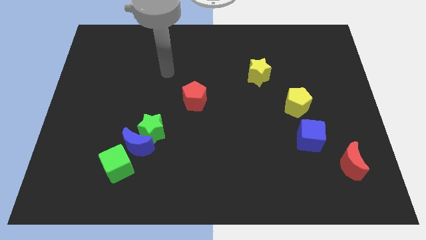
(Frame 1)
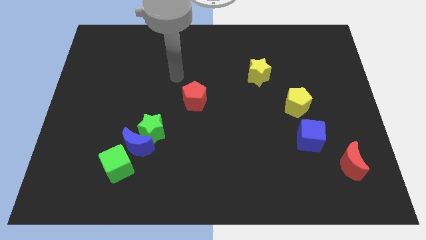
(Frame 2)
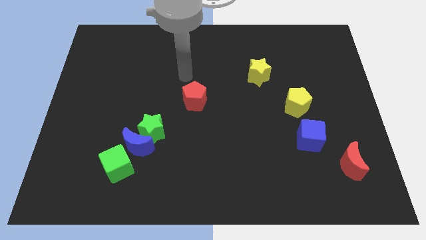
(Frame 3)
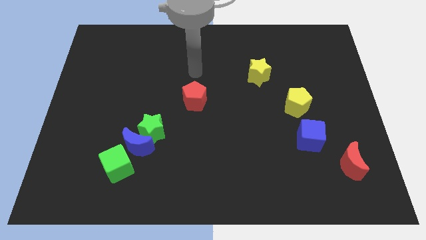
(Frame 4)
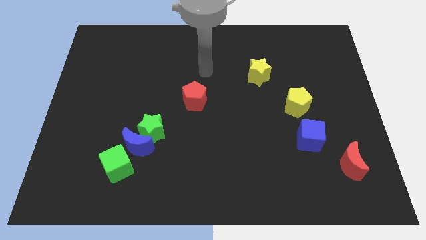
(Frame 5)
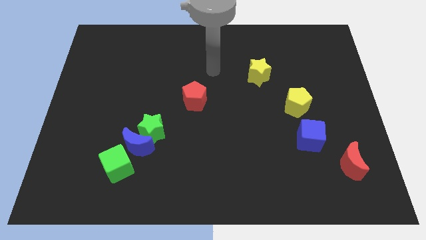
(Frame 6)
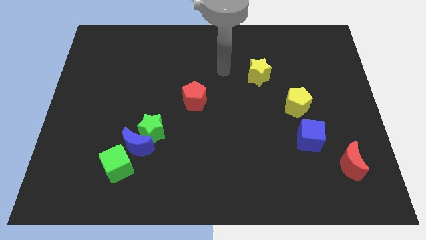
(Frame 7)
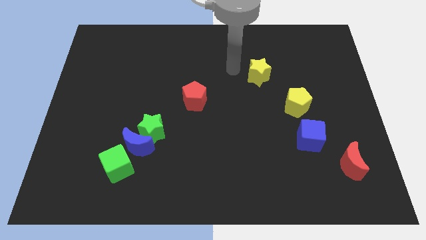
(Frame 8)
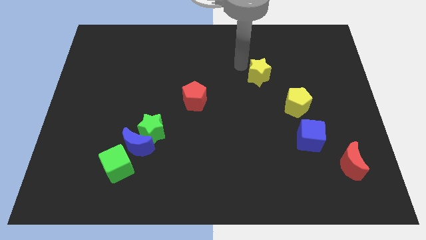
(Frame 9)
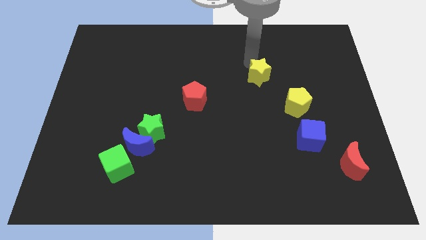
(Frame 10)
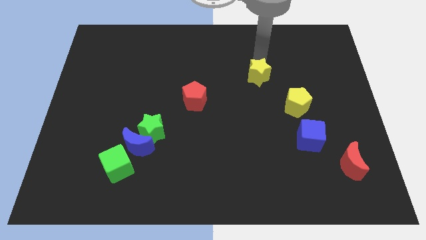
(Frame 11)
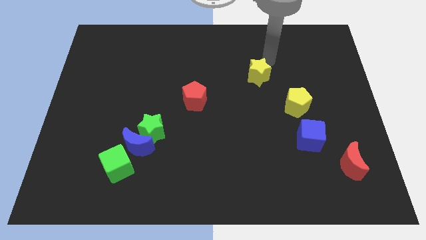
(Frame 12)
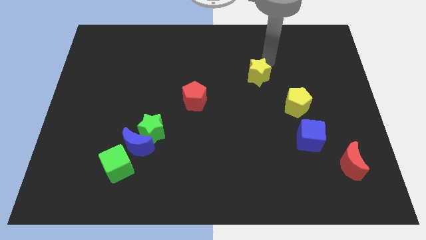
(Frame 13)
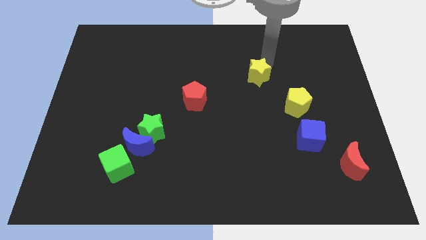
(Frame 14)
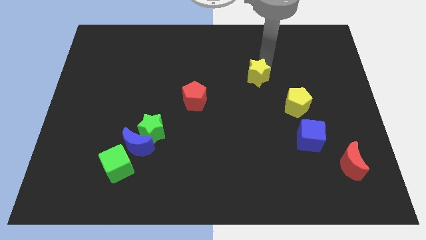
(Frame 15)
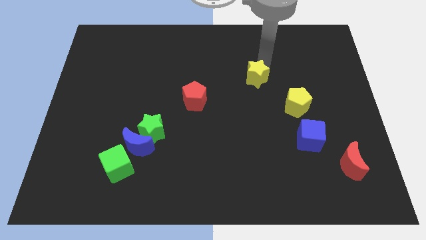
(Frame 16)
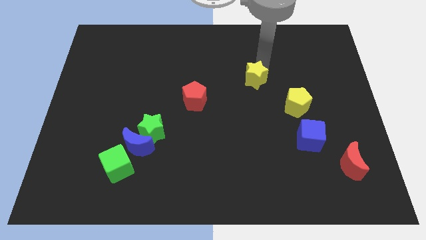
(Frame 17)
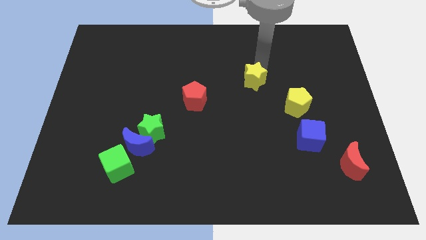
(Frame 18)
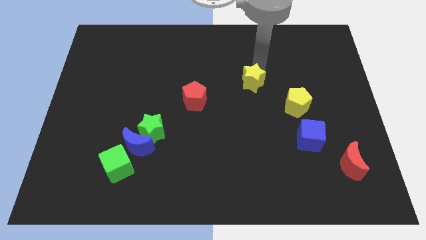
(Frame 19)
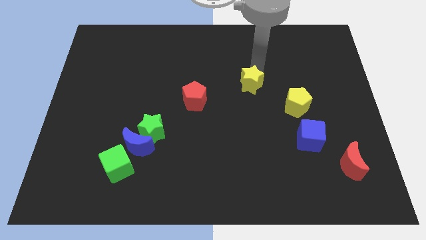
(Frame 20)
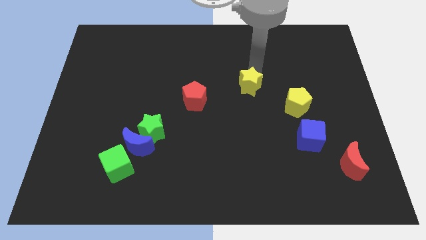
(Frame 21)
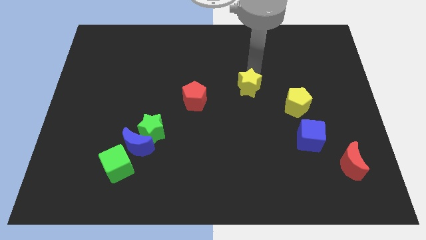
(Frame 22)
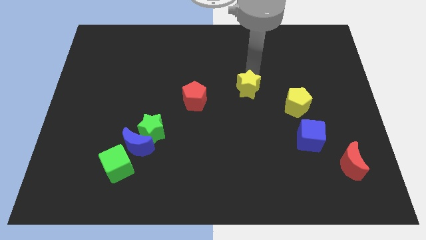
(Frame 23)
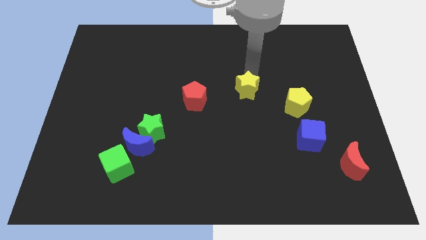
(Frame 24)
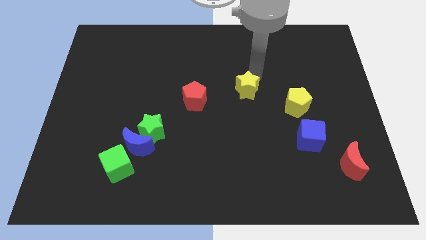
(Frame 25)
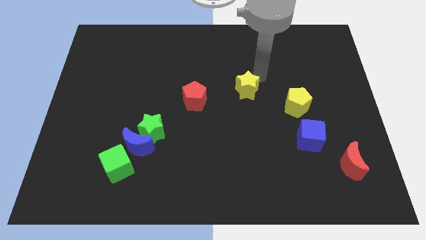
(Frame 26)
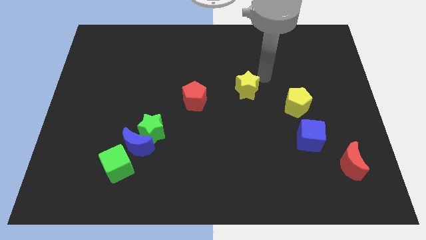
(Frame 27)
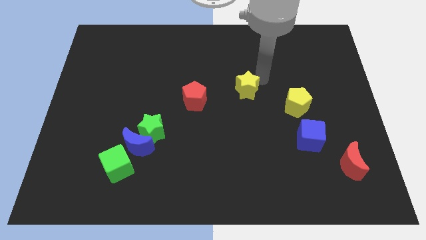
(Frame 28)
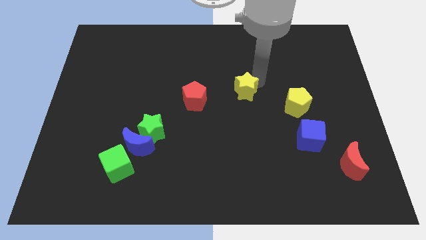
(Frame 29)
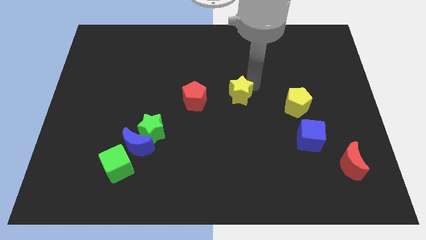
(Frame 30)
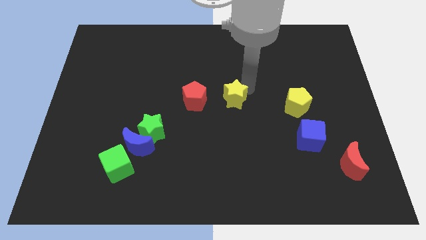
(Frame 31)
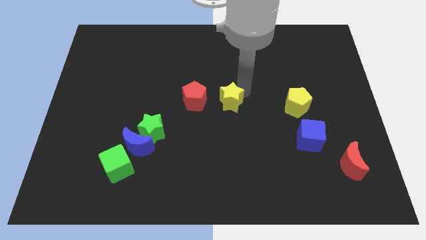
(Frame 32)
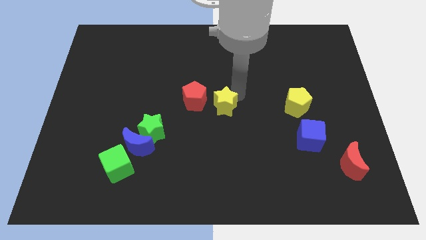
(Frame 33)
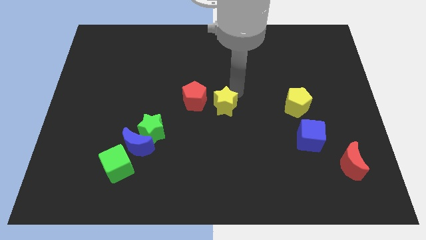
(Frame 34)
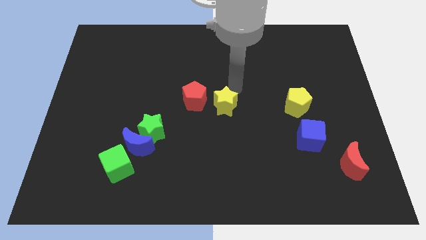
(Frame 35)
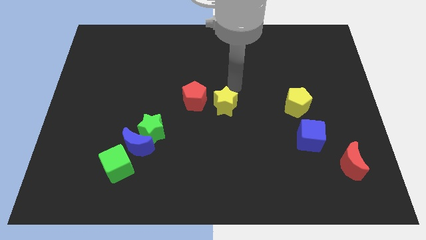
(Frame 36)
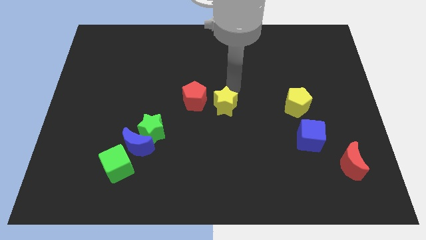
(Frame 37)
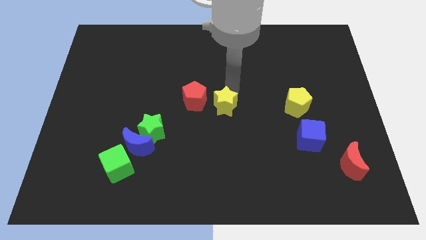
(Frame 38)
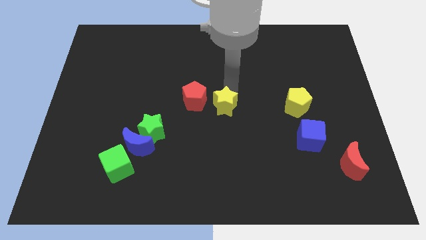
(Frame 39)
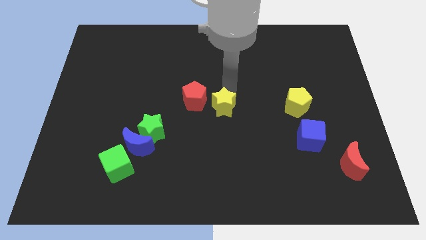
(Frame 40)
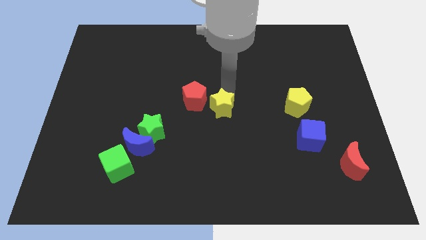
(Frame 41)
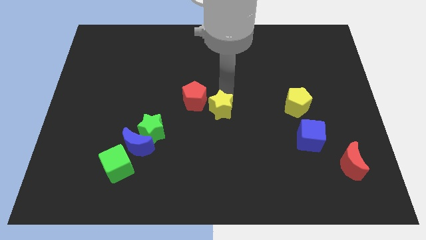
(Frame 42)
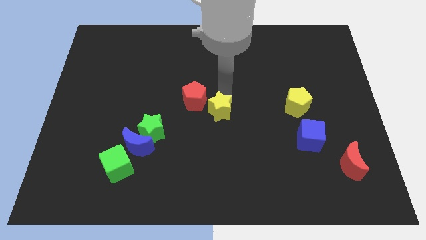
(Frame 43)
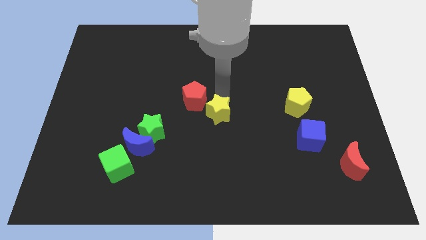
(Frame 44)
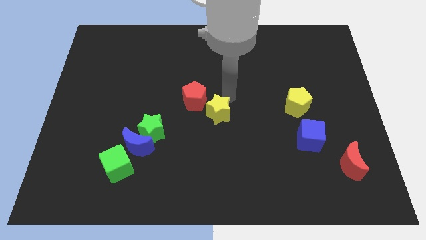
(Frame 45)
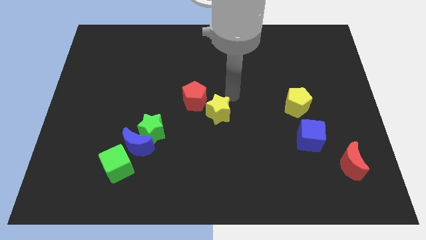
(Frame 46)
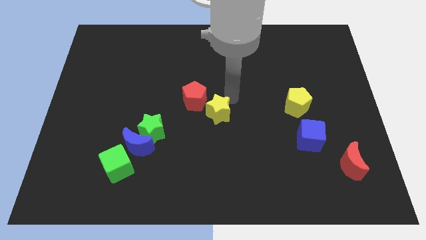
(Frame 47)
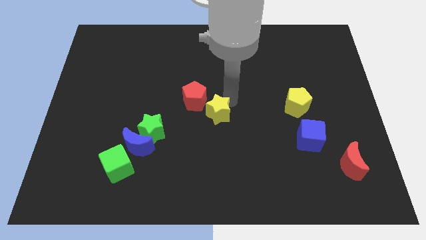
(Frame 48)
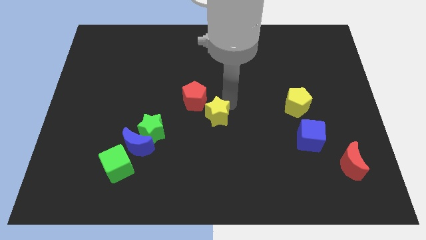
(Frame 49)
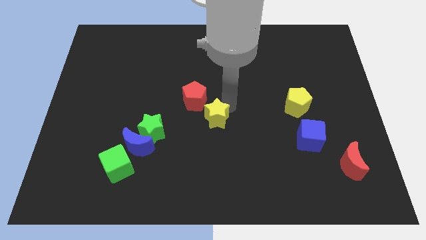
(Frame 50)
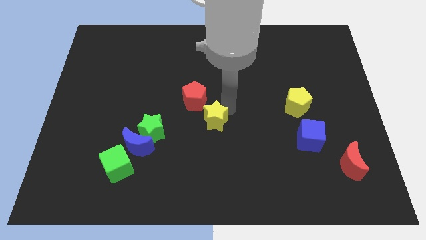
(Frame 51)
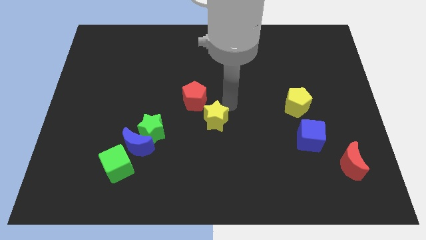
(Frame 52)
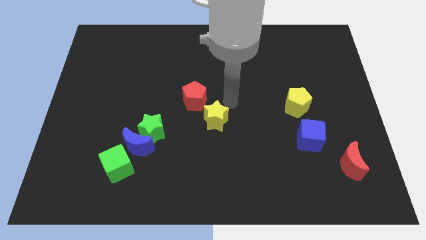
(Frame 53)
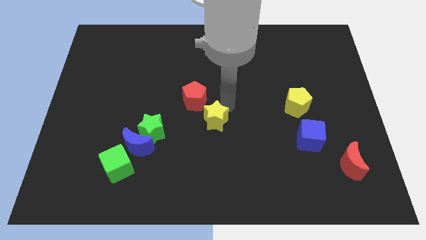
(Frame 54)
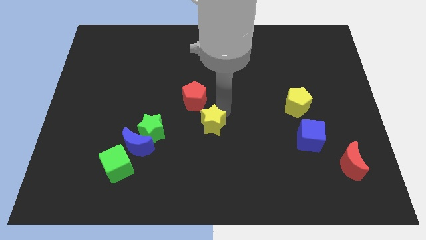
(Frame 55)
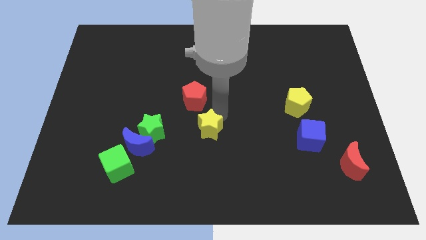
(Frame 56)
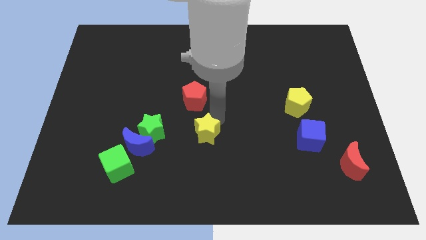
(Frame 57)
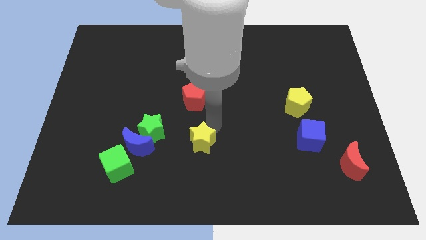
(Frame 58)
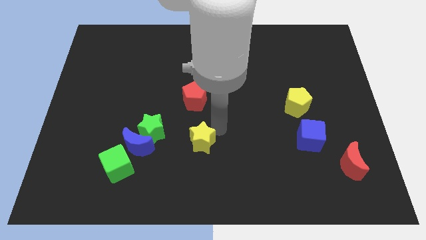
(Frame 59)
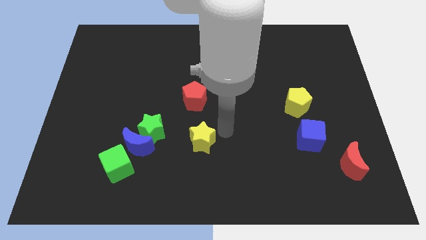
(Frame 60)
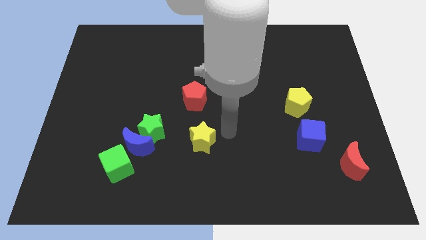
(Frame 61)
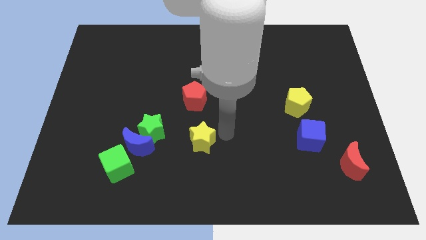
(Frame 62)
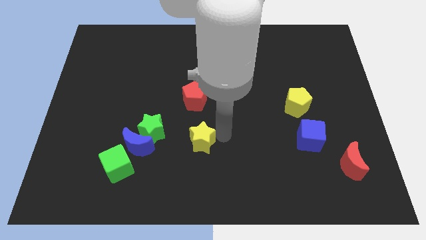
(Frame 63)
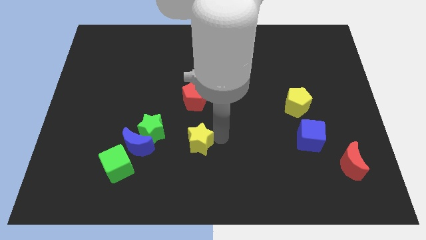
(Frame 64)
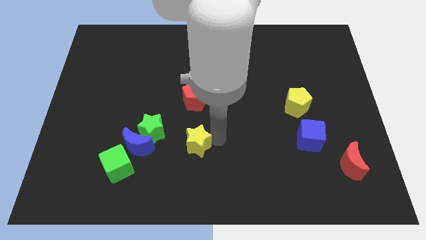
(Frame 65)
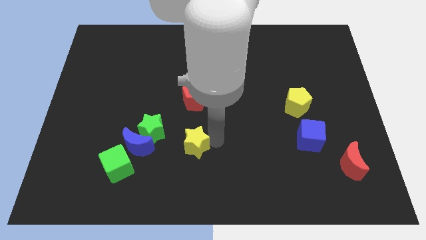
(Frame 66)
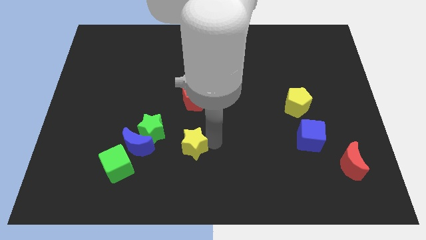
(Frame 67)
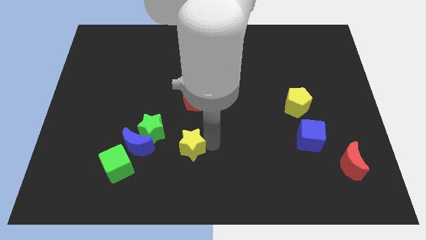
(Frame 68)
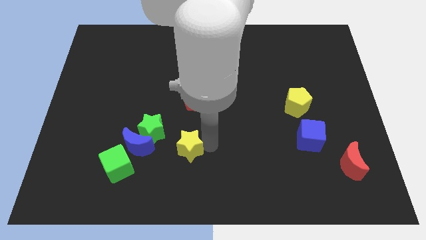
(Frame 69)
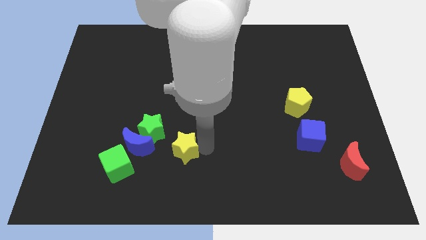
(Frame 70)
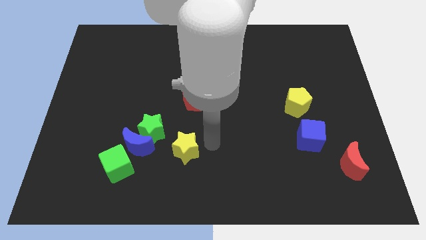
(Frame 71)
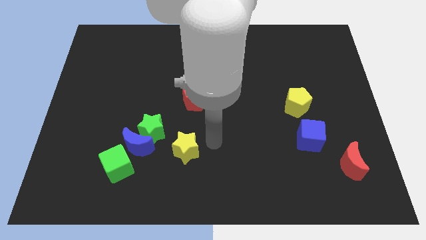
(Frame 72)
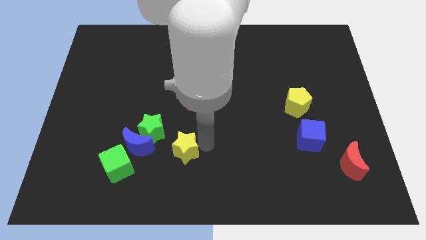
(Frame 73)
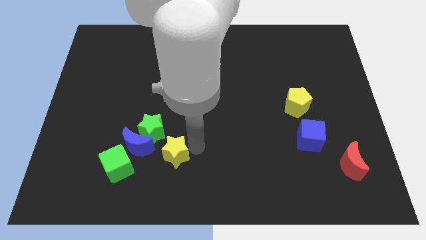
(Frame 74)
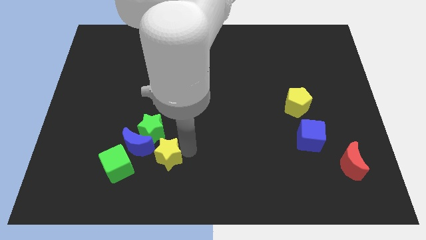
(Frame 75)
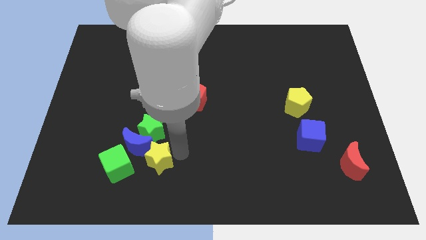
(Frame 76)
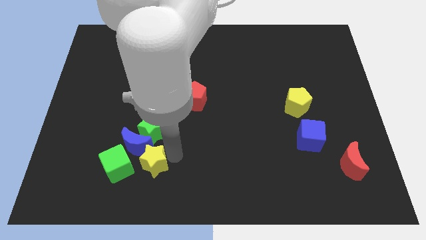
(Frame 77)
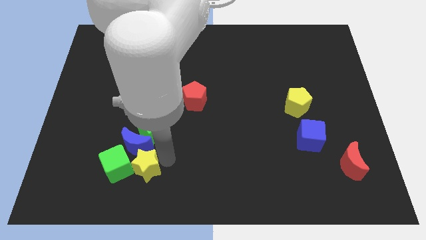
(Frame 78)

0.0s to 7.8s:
push the yellow star towards the green cube
